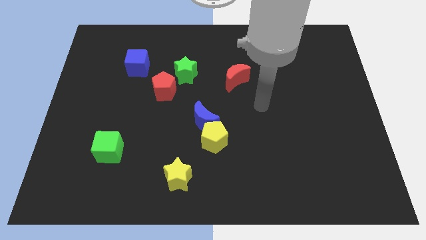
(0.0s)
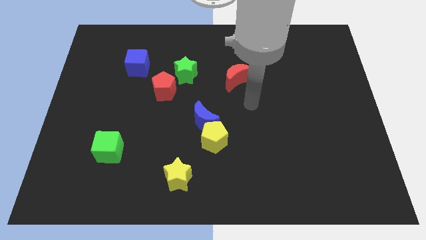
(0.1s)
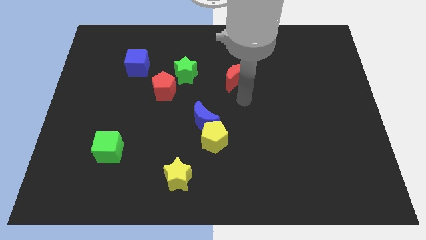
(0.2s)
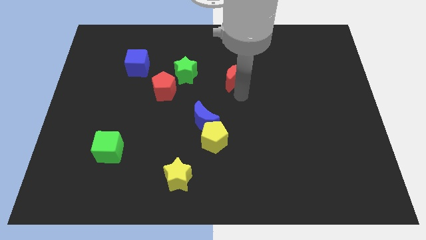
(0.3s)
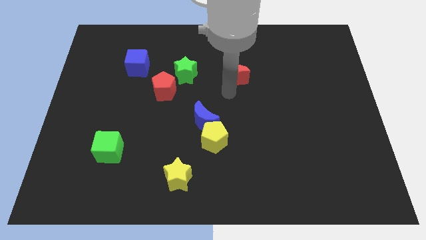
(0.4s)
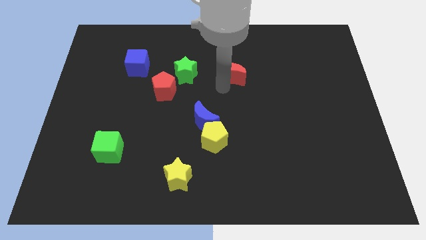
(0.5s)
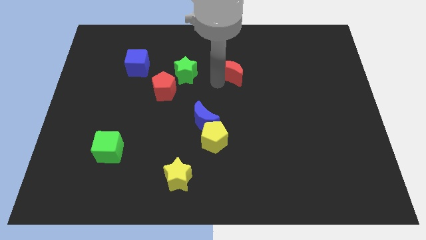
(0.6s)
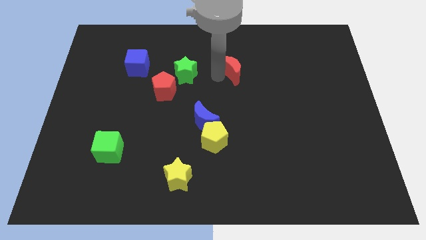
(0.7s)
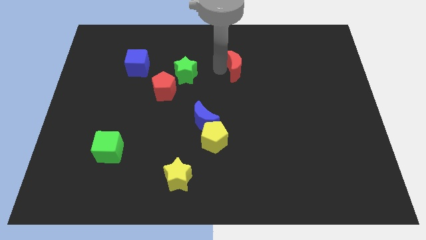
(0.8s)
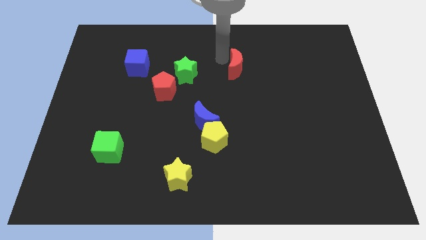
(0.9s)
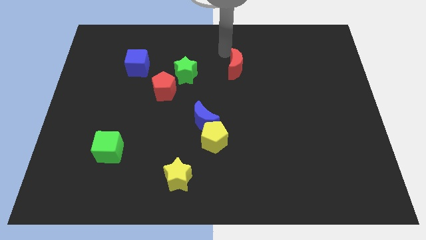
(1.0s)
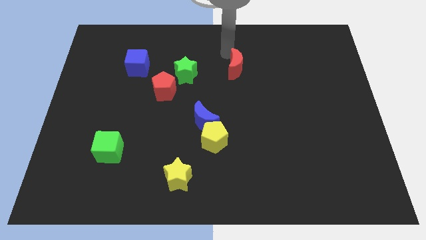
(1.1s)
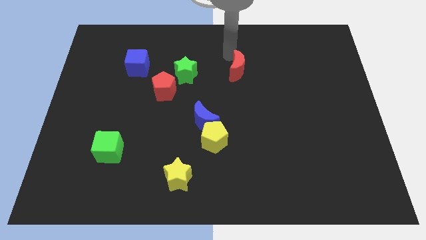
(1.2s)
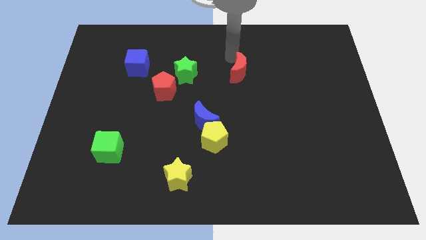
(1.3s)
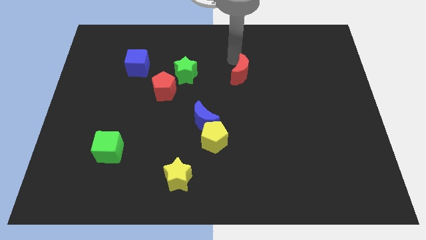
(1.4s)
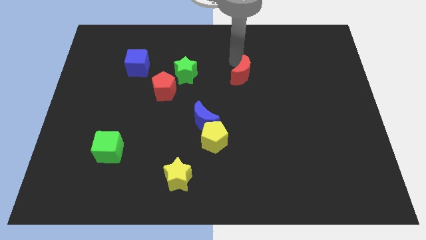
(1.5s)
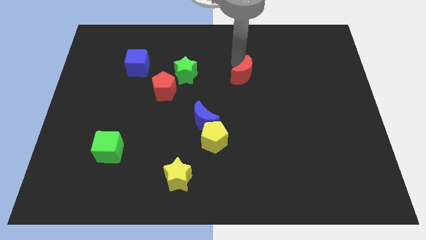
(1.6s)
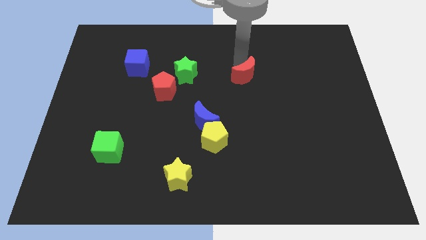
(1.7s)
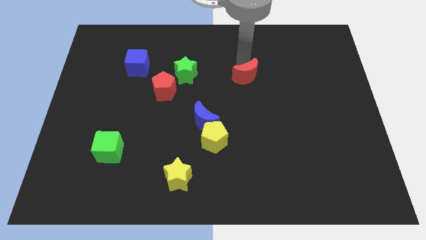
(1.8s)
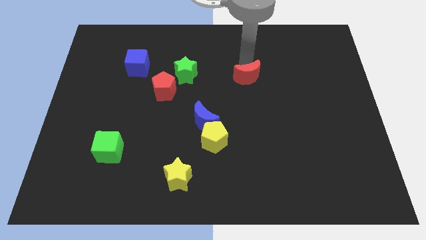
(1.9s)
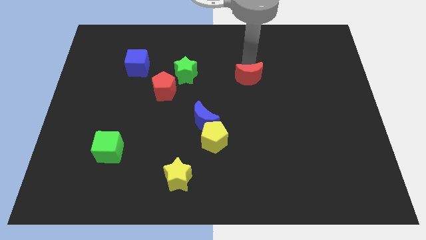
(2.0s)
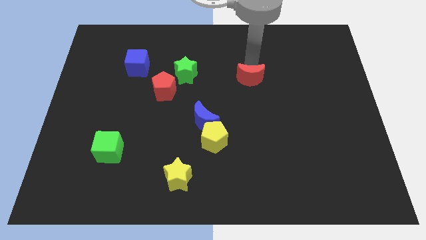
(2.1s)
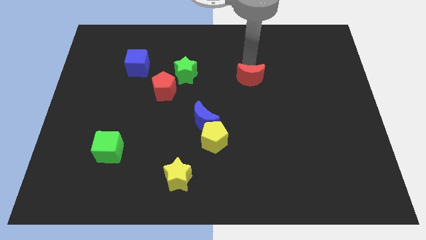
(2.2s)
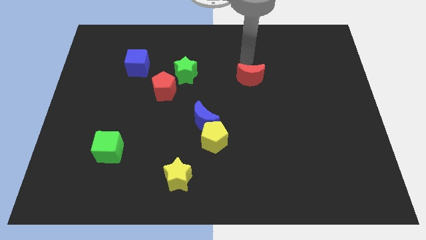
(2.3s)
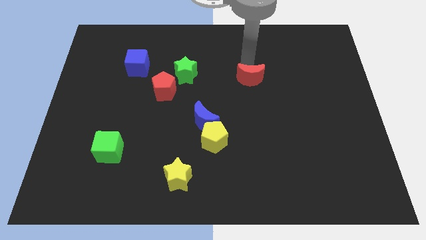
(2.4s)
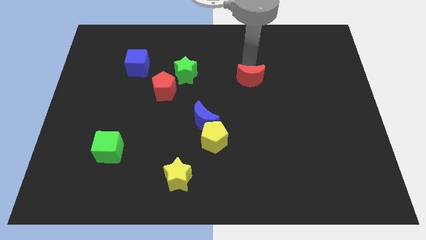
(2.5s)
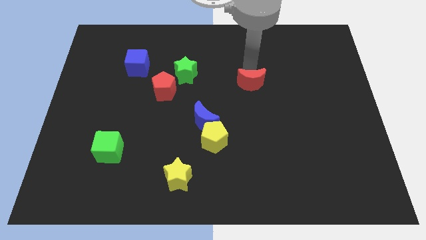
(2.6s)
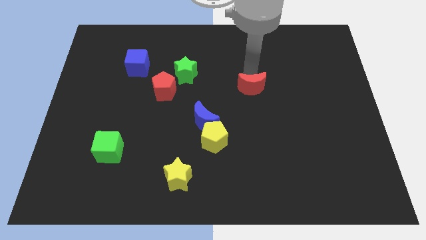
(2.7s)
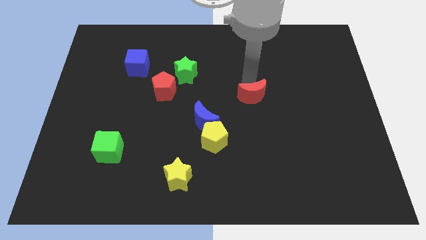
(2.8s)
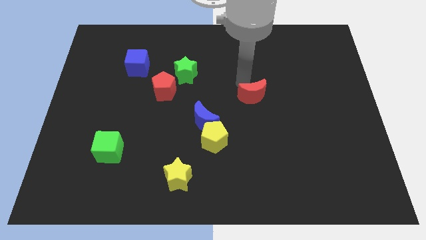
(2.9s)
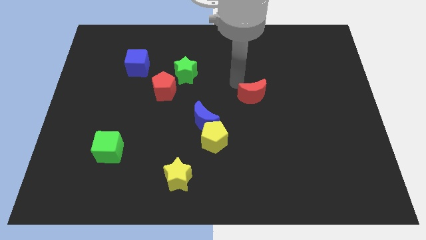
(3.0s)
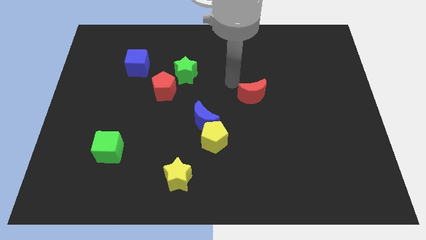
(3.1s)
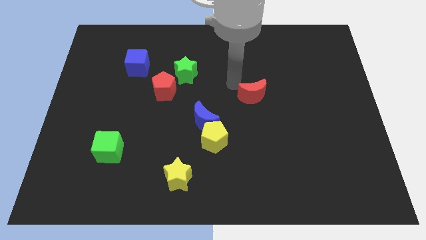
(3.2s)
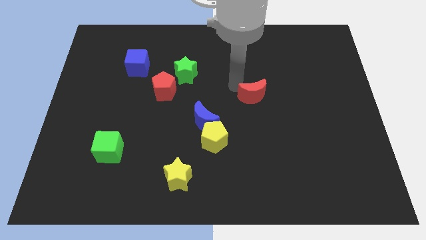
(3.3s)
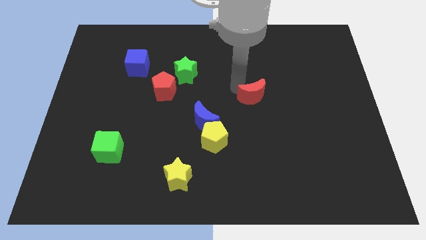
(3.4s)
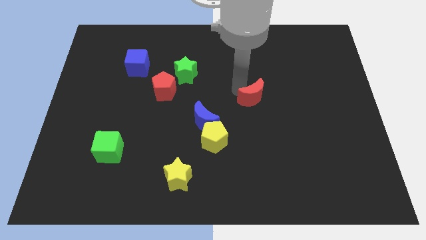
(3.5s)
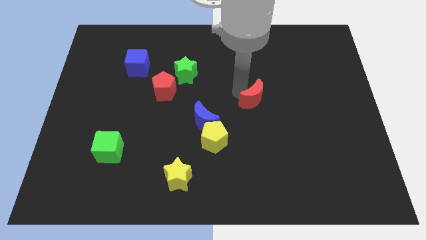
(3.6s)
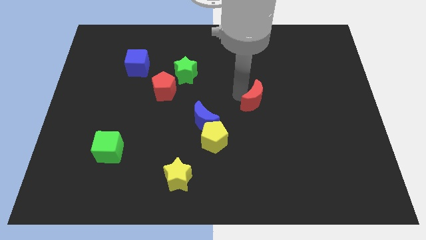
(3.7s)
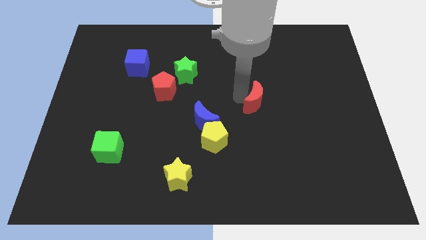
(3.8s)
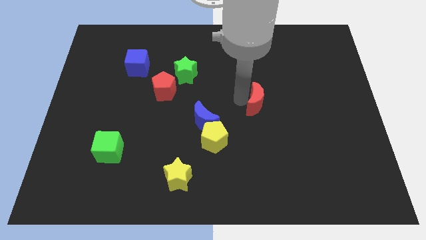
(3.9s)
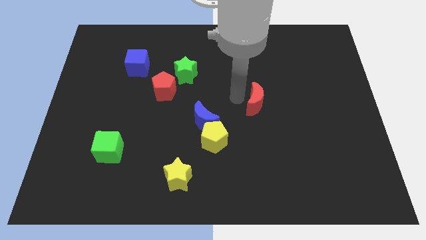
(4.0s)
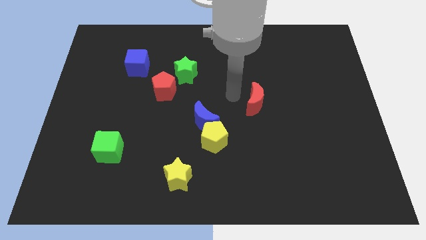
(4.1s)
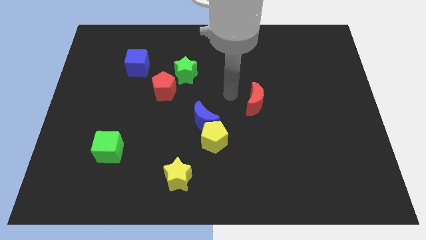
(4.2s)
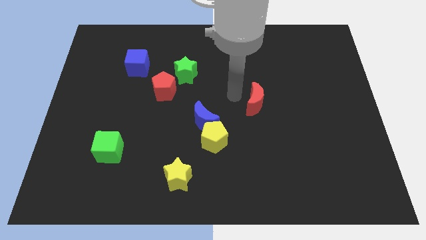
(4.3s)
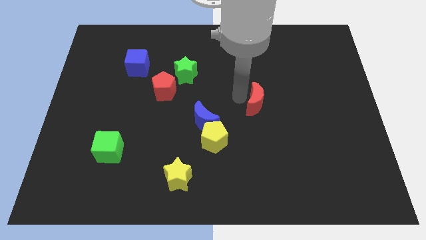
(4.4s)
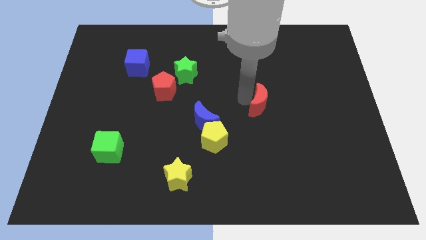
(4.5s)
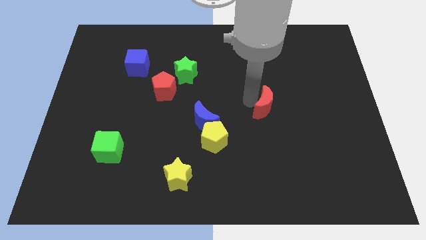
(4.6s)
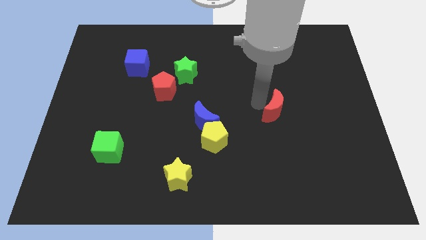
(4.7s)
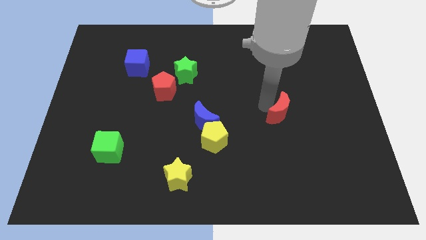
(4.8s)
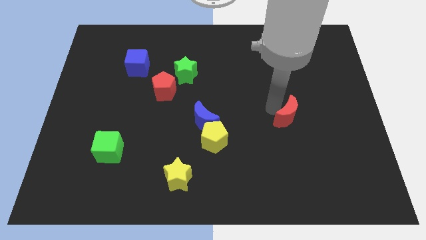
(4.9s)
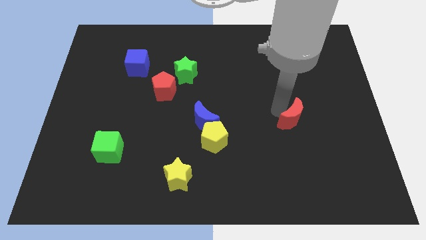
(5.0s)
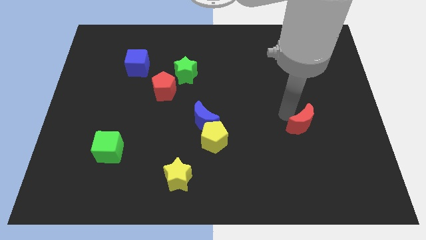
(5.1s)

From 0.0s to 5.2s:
push the red moon downwards and to the right diagonally

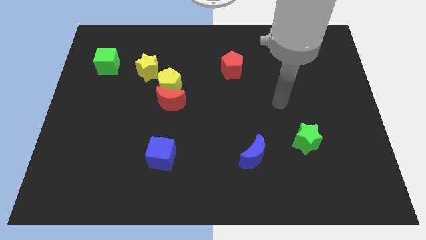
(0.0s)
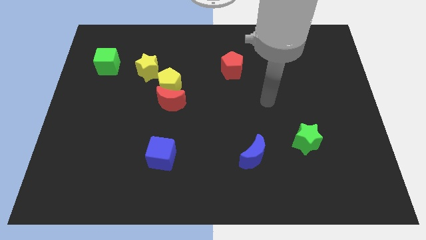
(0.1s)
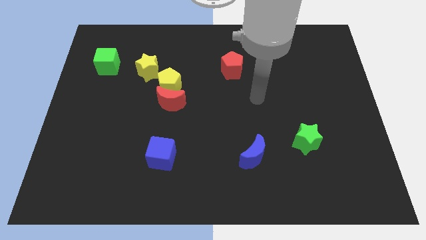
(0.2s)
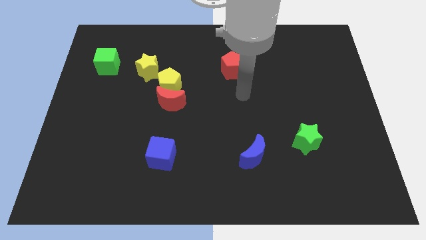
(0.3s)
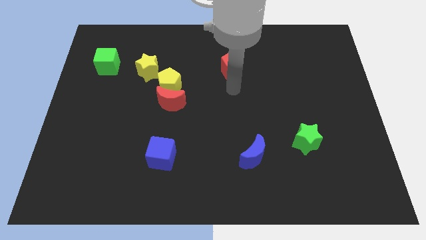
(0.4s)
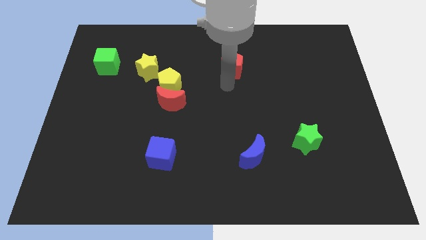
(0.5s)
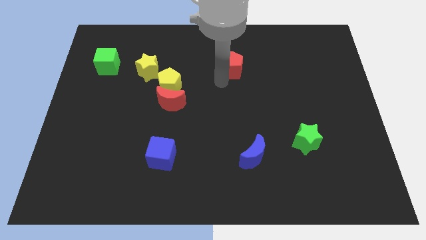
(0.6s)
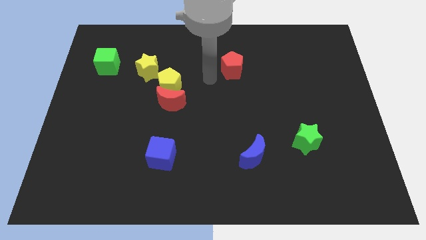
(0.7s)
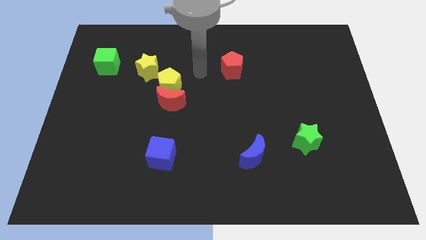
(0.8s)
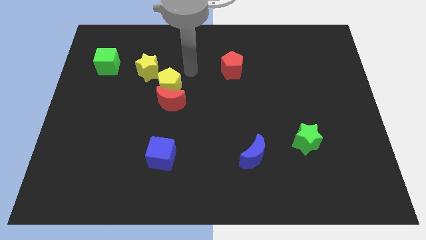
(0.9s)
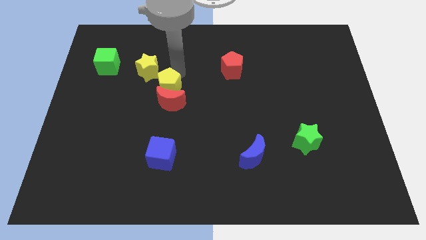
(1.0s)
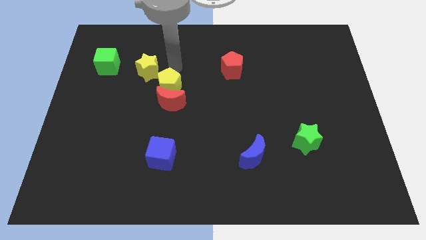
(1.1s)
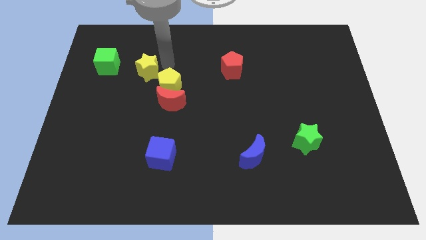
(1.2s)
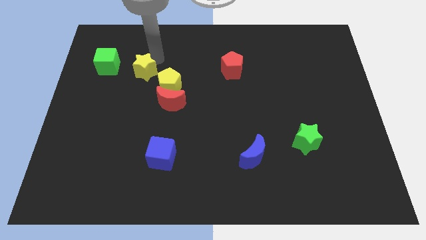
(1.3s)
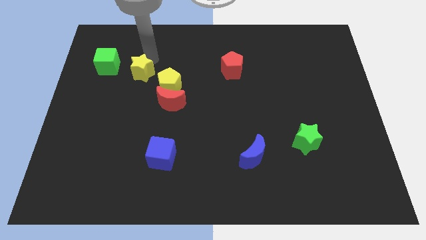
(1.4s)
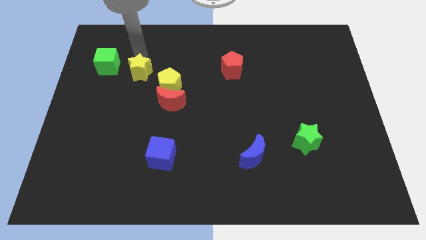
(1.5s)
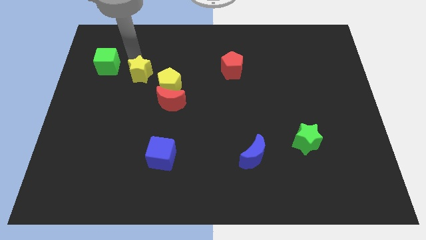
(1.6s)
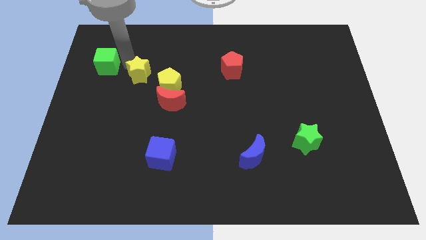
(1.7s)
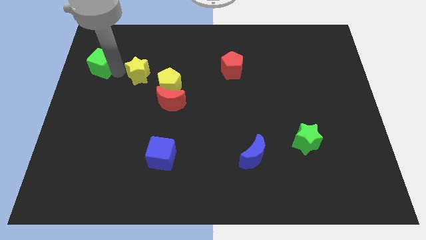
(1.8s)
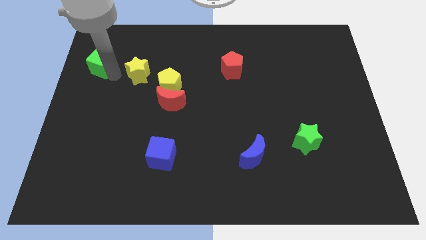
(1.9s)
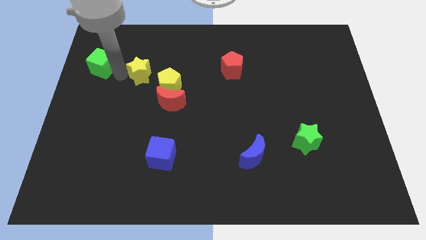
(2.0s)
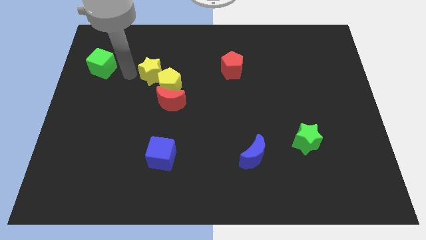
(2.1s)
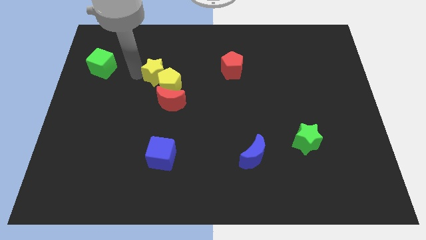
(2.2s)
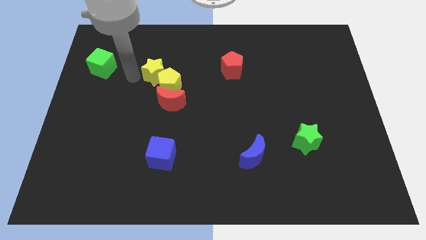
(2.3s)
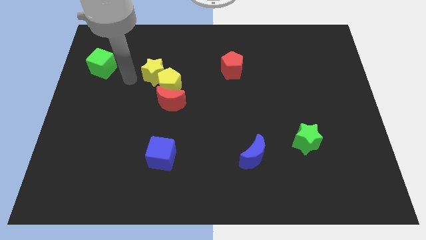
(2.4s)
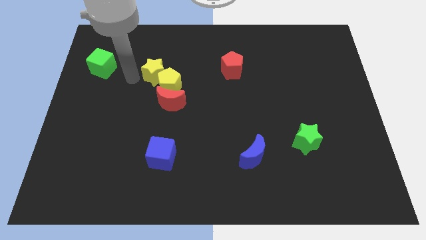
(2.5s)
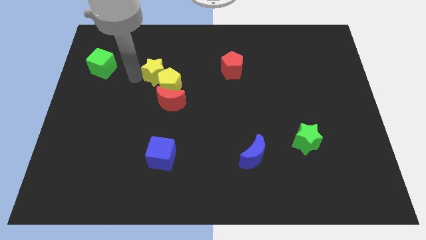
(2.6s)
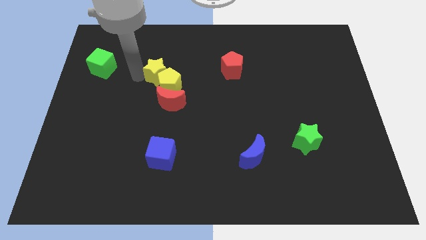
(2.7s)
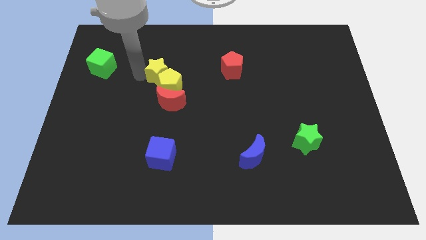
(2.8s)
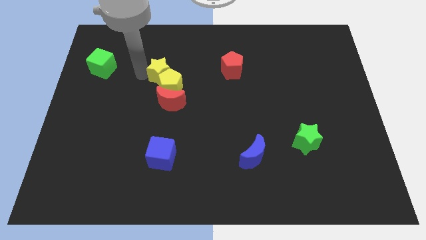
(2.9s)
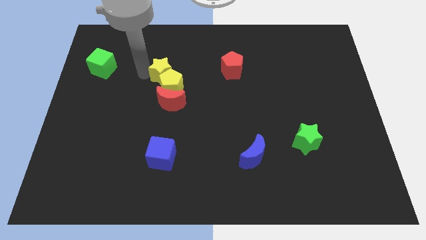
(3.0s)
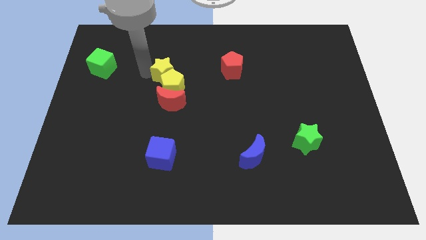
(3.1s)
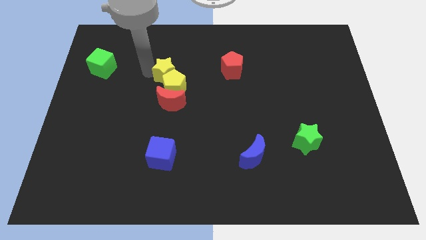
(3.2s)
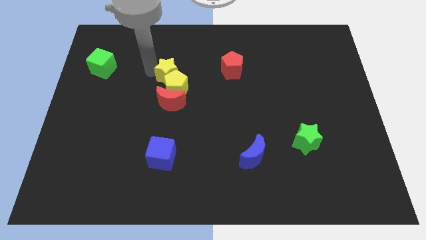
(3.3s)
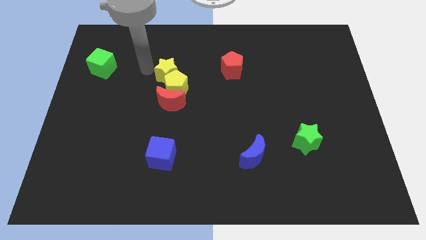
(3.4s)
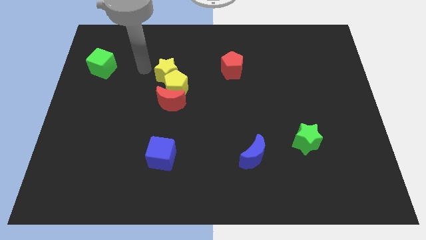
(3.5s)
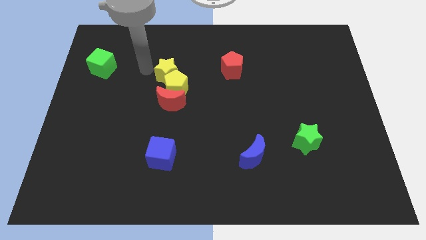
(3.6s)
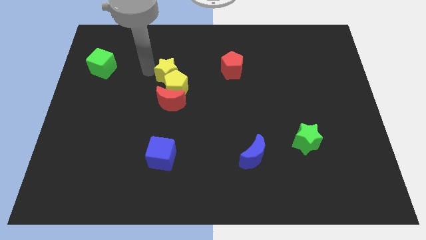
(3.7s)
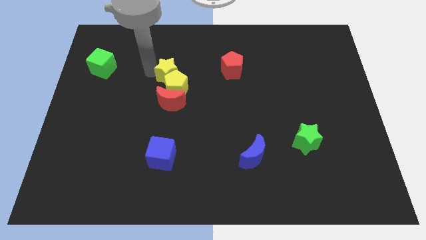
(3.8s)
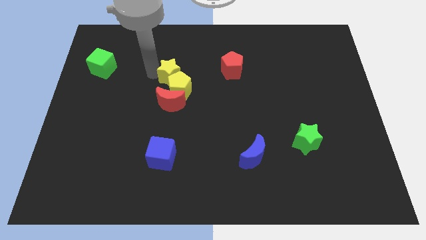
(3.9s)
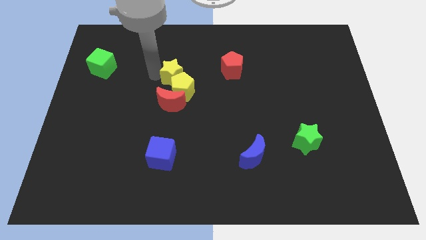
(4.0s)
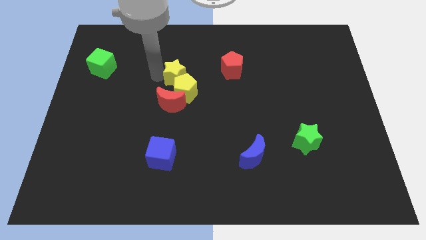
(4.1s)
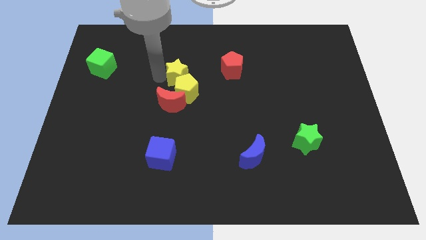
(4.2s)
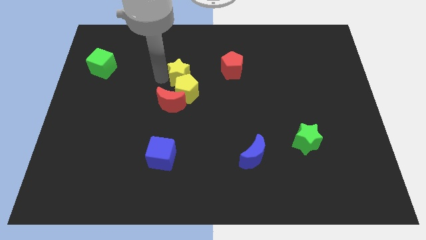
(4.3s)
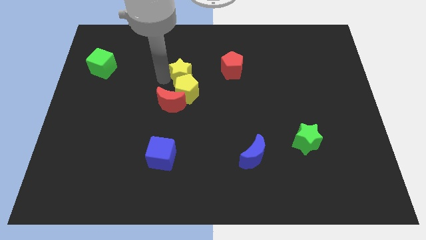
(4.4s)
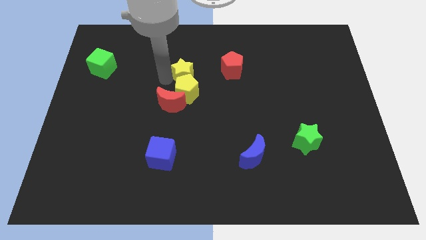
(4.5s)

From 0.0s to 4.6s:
move the yellow star a little down and to the right
